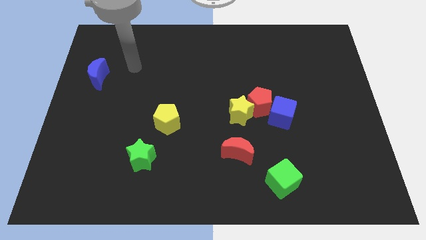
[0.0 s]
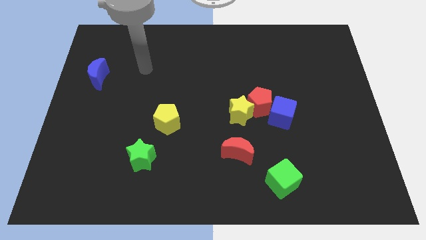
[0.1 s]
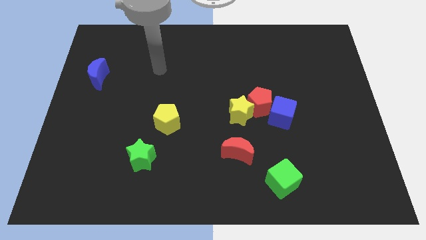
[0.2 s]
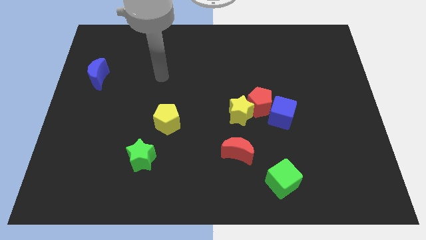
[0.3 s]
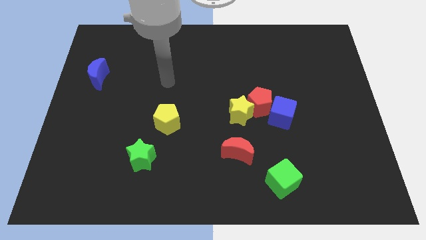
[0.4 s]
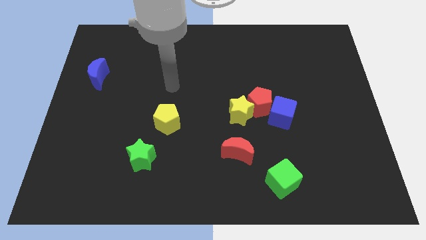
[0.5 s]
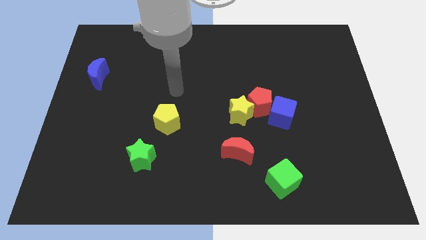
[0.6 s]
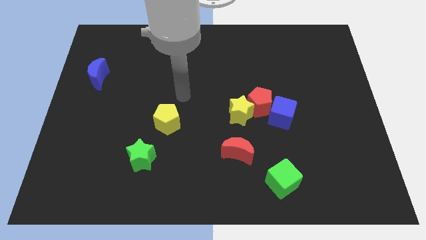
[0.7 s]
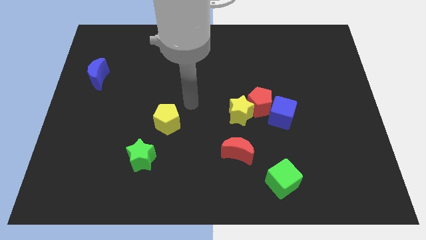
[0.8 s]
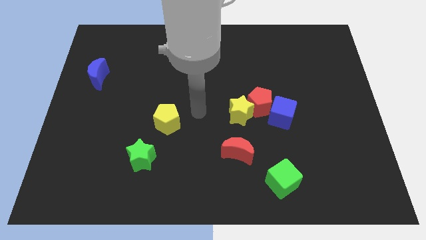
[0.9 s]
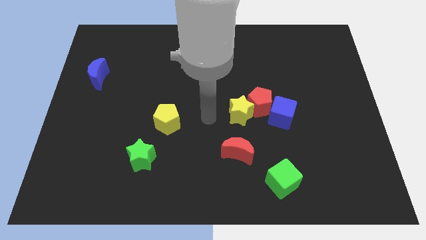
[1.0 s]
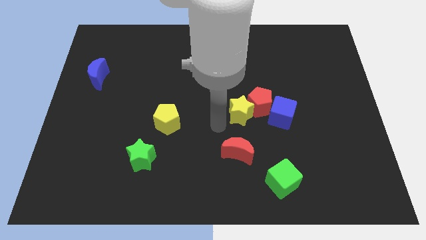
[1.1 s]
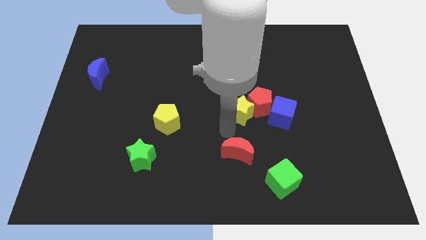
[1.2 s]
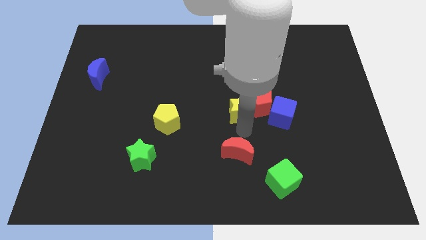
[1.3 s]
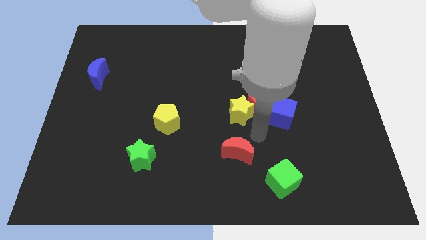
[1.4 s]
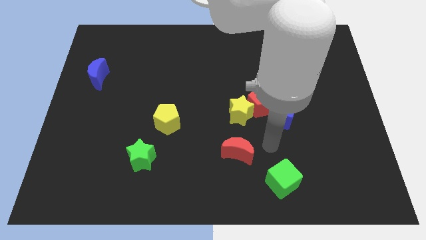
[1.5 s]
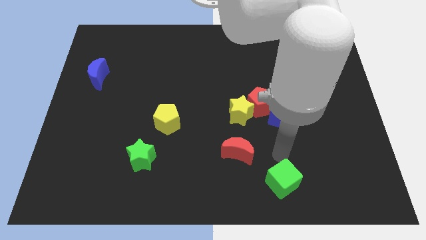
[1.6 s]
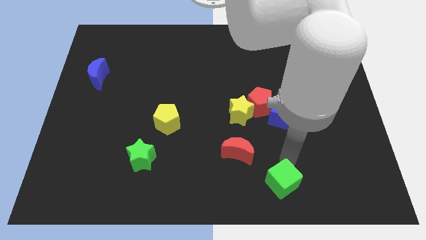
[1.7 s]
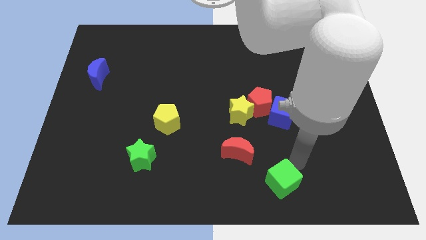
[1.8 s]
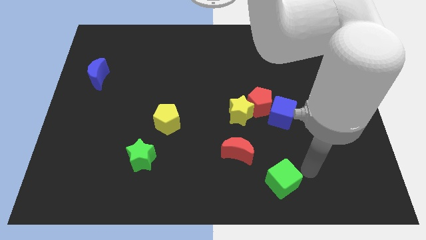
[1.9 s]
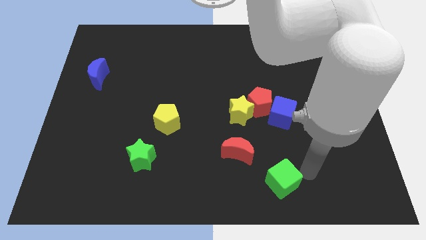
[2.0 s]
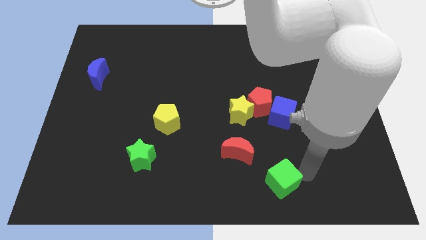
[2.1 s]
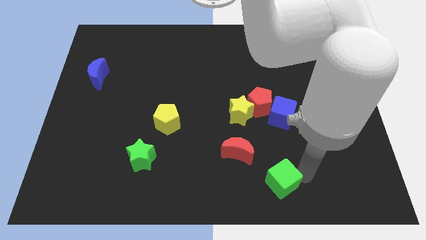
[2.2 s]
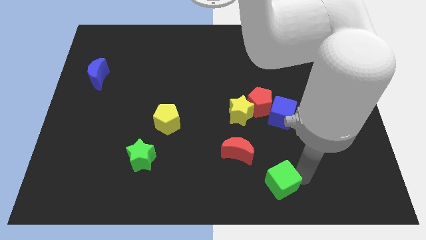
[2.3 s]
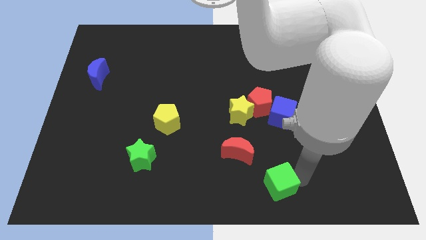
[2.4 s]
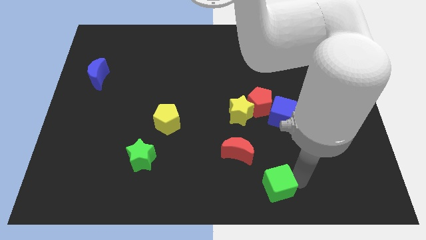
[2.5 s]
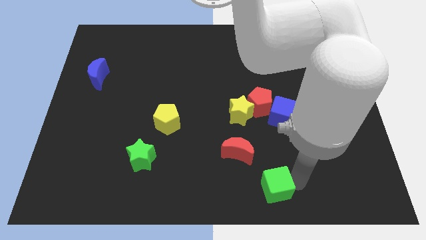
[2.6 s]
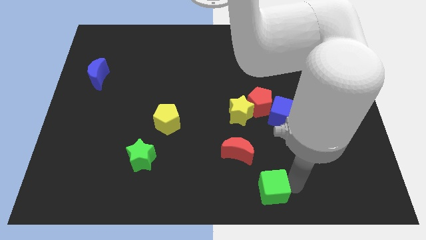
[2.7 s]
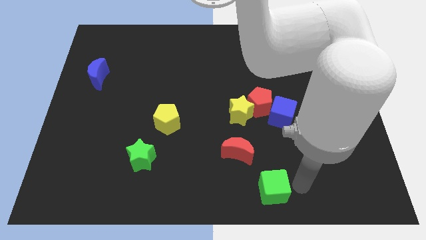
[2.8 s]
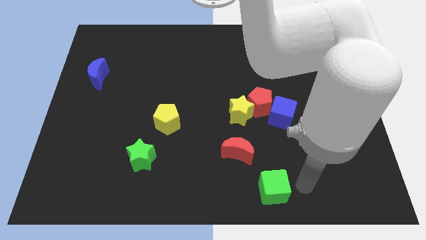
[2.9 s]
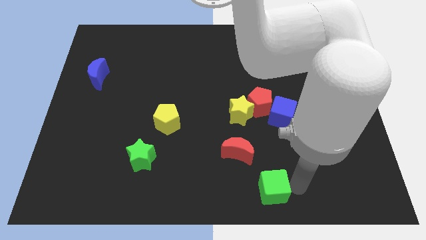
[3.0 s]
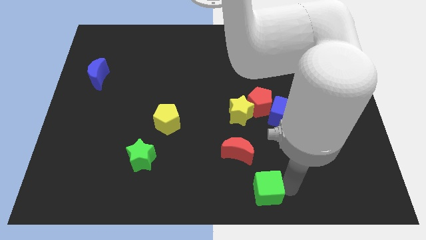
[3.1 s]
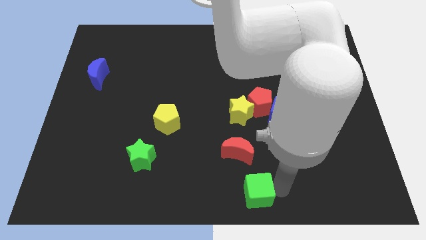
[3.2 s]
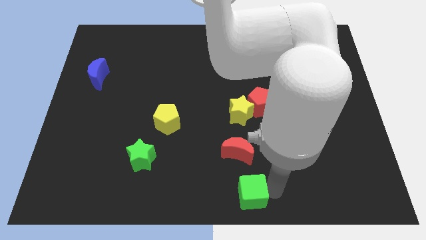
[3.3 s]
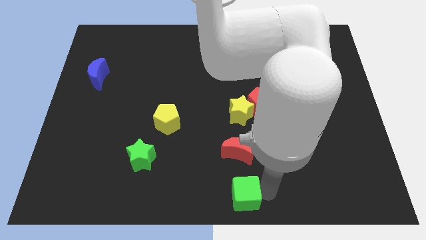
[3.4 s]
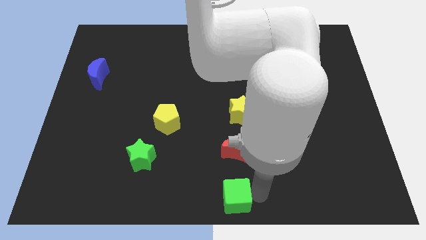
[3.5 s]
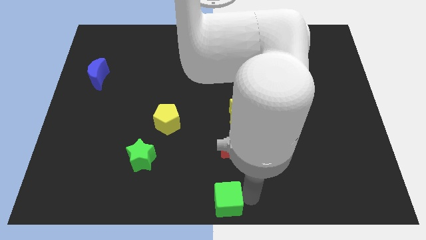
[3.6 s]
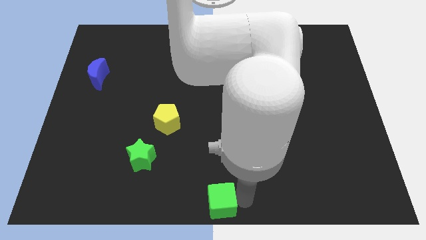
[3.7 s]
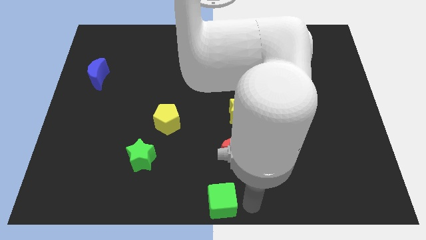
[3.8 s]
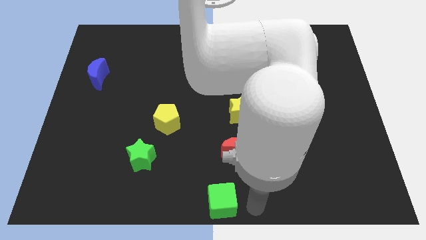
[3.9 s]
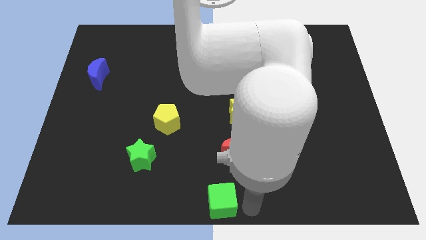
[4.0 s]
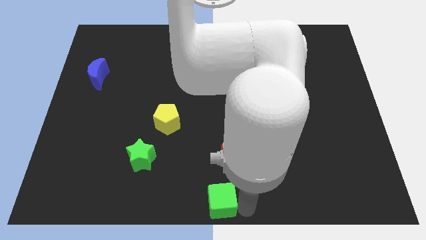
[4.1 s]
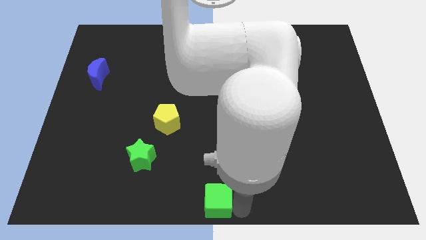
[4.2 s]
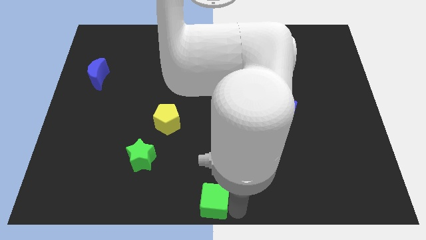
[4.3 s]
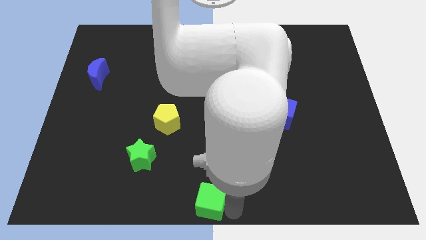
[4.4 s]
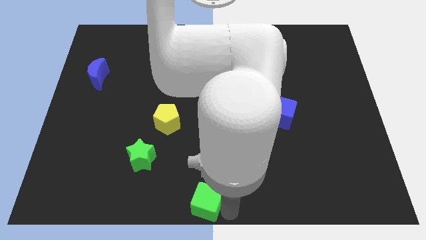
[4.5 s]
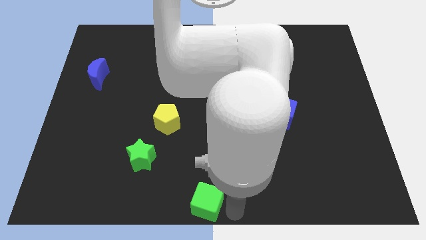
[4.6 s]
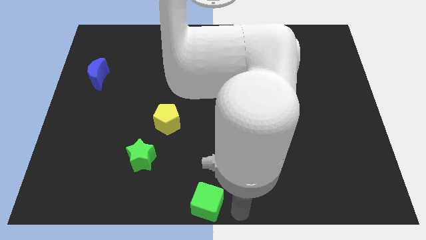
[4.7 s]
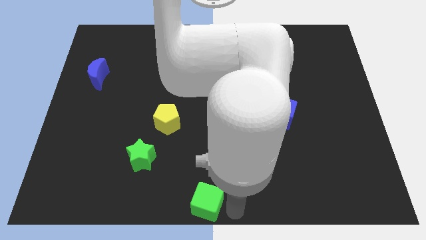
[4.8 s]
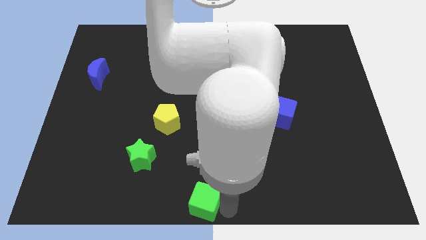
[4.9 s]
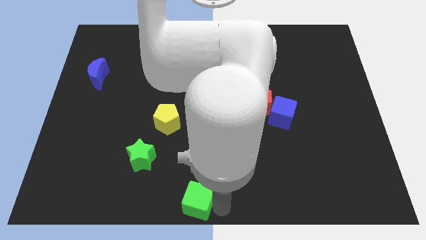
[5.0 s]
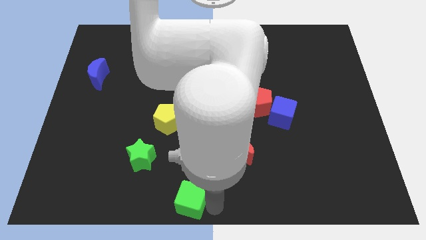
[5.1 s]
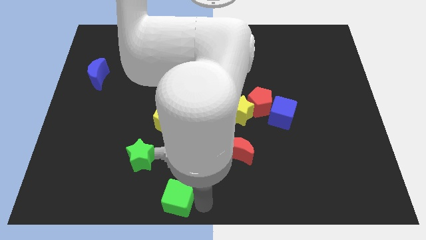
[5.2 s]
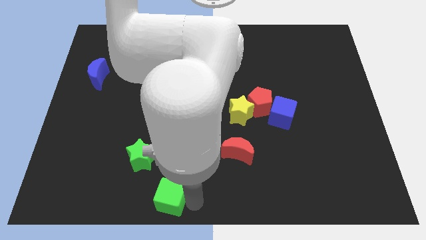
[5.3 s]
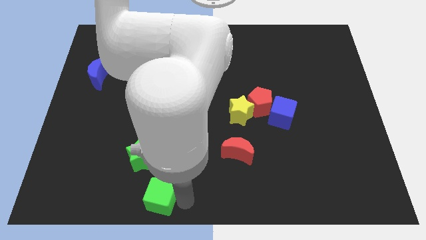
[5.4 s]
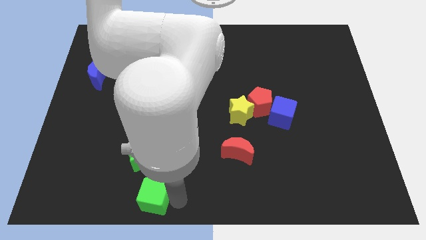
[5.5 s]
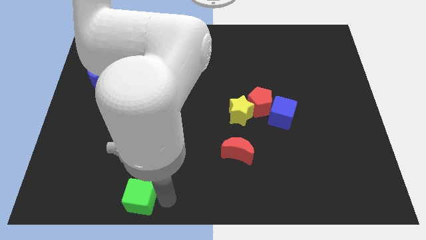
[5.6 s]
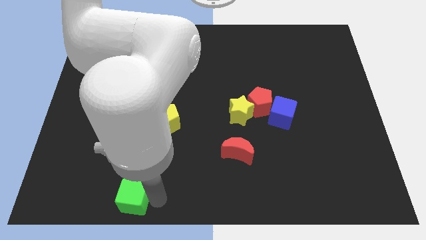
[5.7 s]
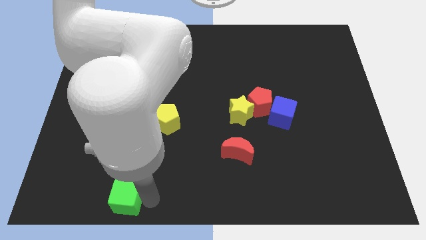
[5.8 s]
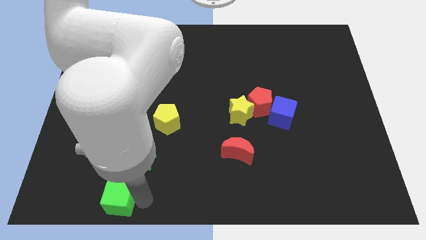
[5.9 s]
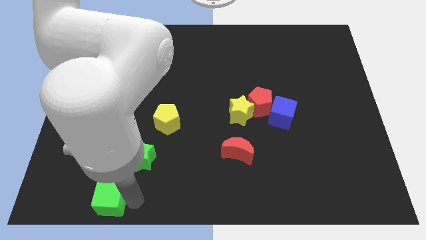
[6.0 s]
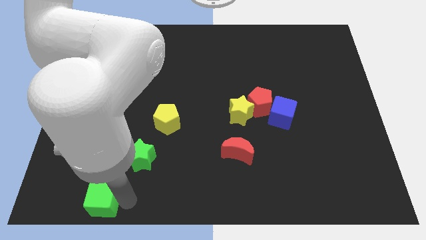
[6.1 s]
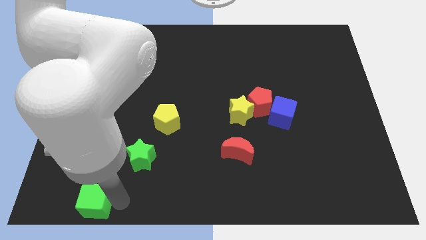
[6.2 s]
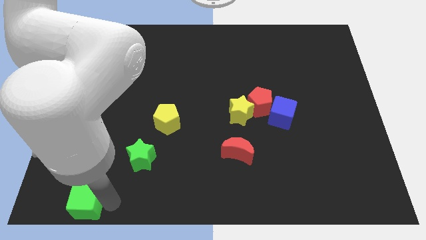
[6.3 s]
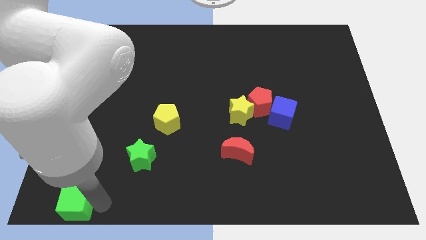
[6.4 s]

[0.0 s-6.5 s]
put the green cube to the bottom left of the board

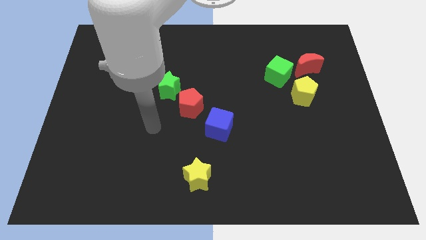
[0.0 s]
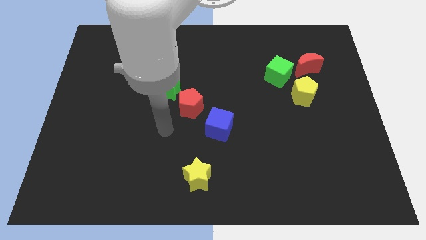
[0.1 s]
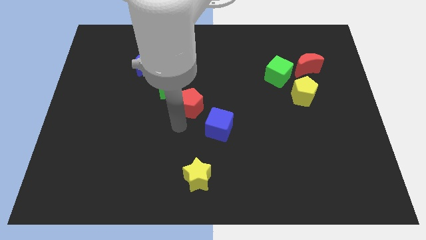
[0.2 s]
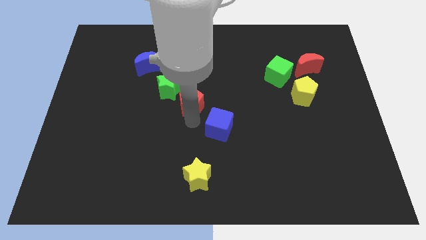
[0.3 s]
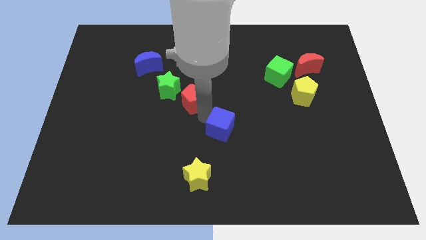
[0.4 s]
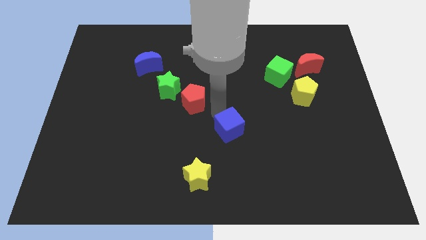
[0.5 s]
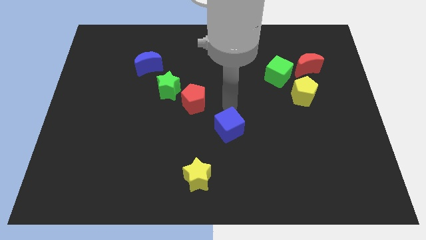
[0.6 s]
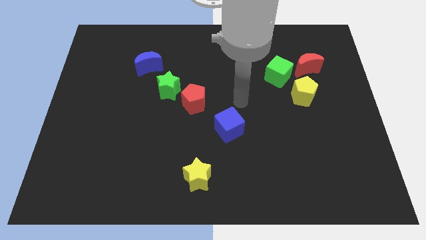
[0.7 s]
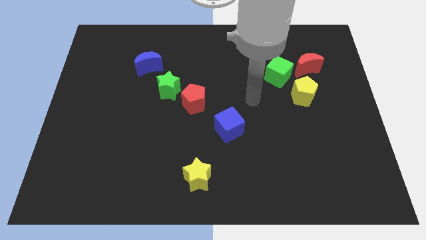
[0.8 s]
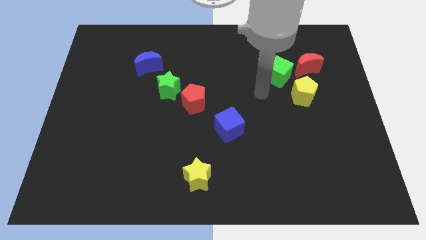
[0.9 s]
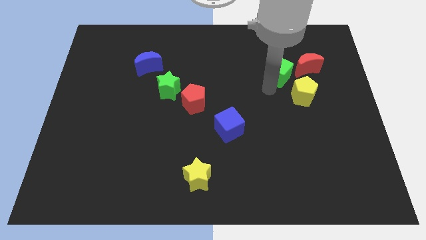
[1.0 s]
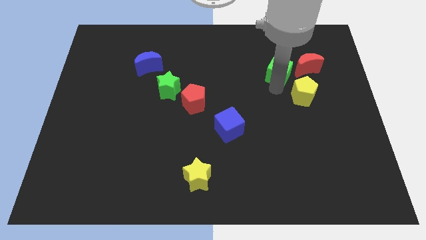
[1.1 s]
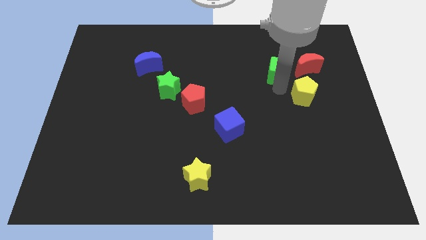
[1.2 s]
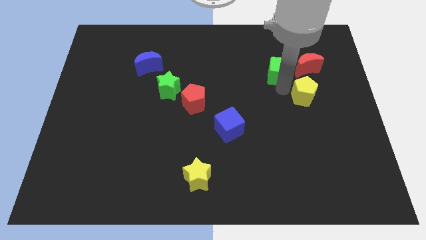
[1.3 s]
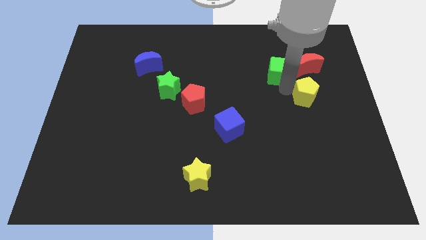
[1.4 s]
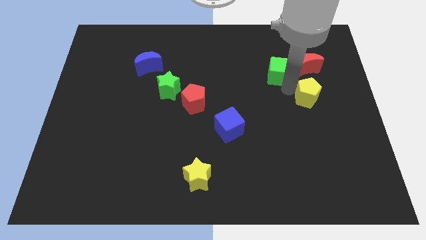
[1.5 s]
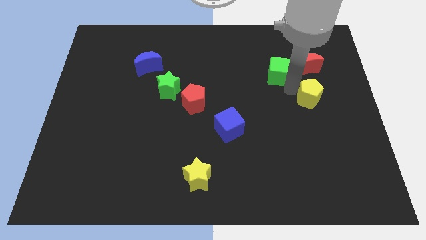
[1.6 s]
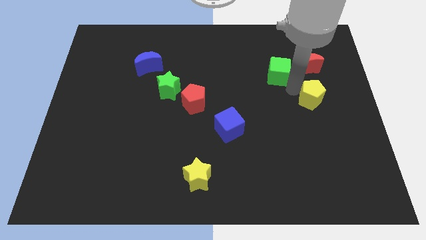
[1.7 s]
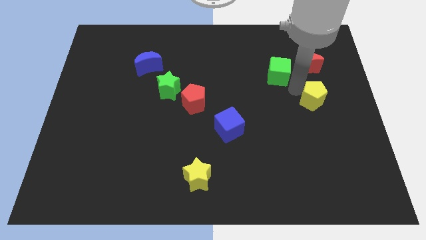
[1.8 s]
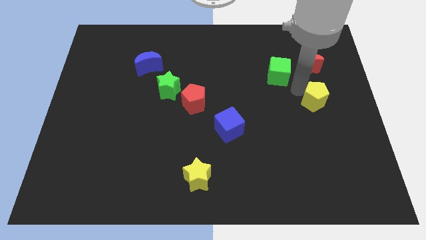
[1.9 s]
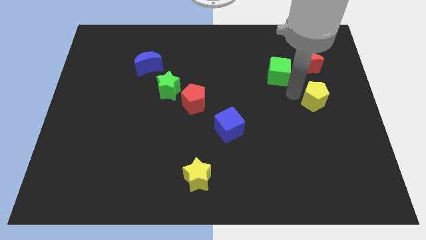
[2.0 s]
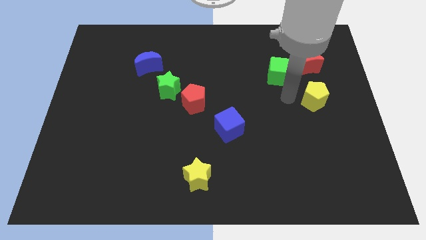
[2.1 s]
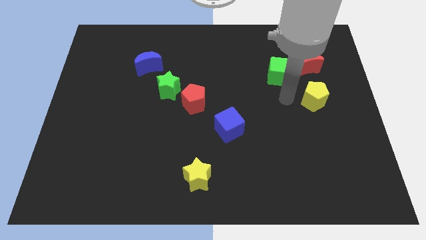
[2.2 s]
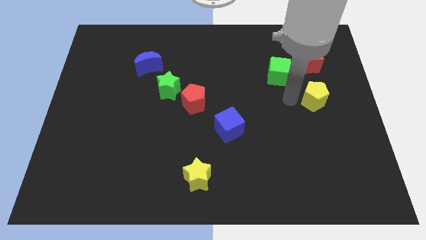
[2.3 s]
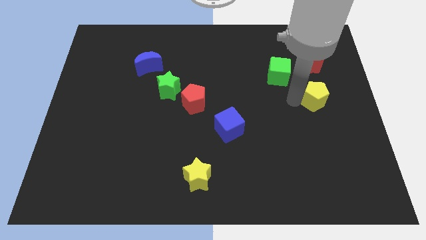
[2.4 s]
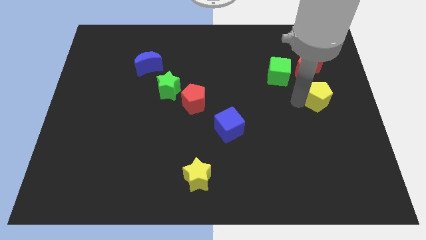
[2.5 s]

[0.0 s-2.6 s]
put the yellow pentagon to the right side of the board
